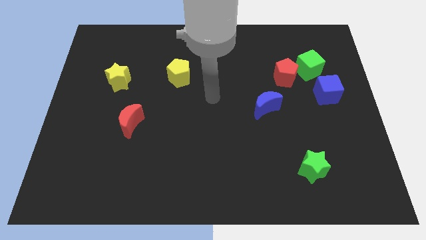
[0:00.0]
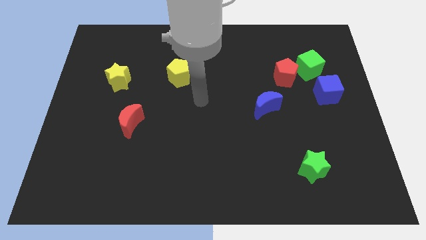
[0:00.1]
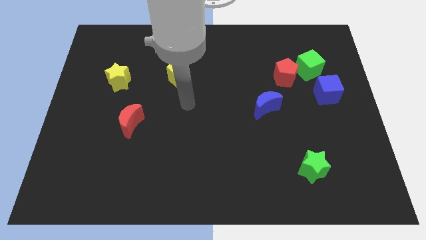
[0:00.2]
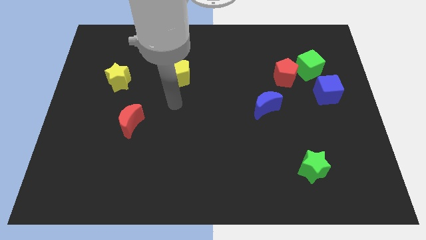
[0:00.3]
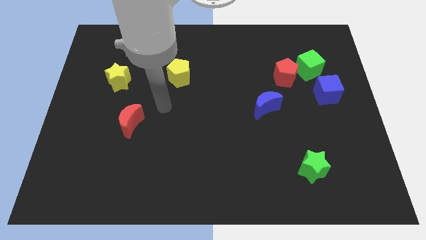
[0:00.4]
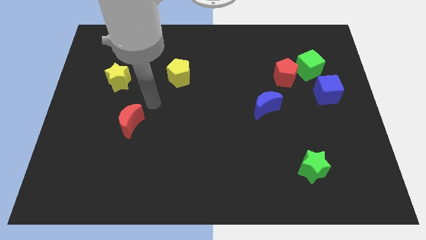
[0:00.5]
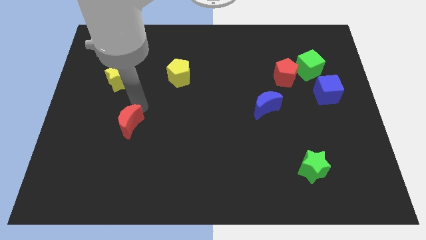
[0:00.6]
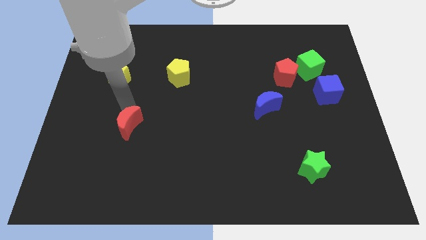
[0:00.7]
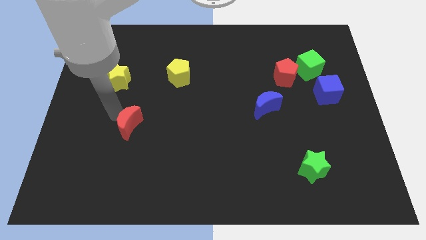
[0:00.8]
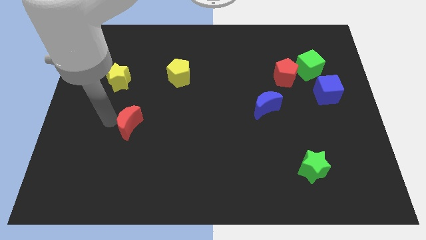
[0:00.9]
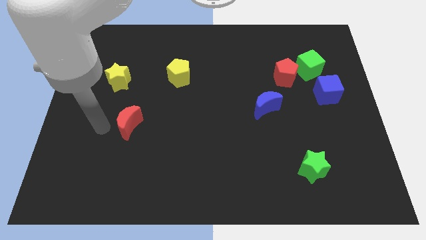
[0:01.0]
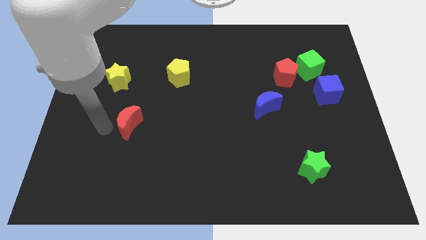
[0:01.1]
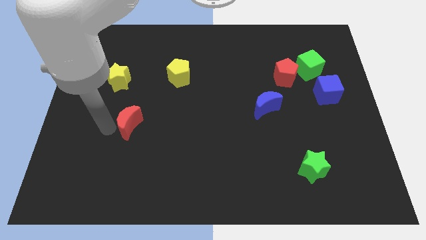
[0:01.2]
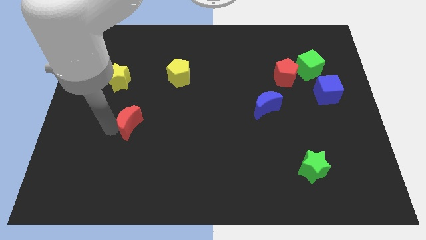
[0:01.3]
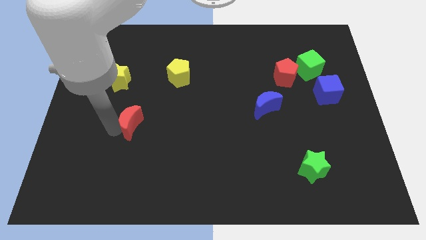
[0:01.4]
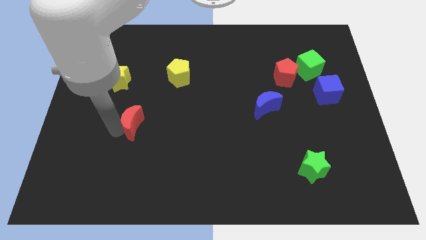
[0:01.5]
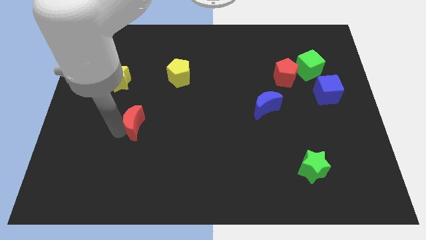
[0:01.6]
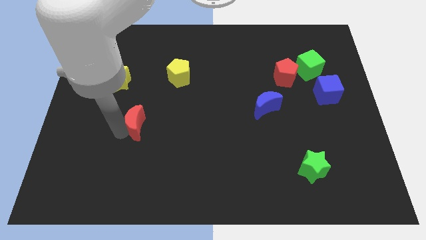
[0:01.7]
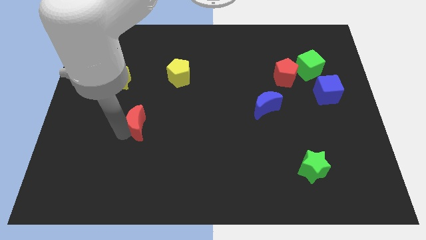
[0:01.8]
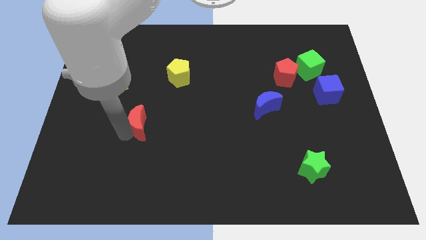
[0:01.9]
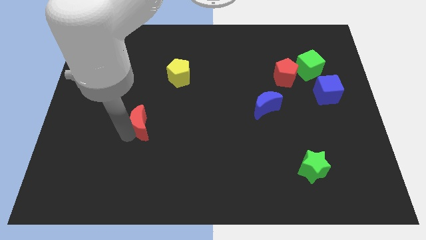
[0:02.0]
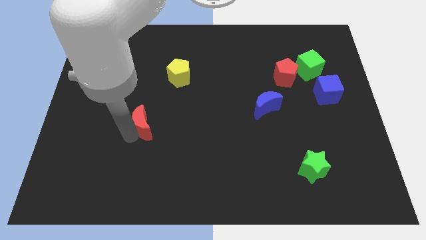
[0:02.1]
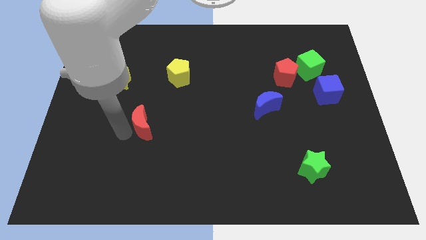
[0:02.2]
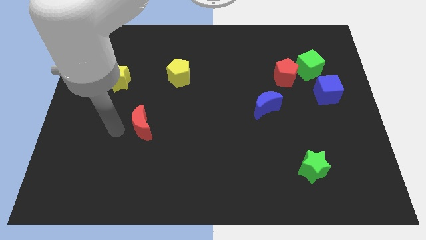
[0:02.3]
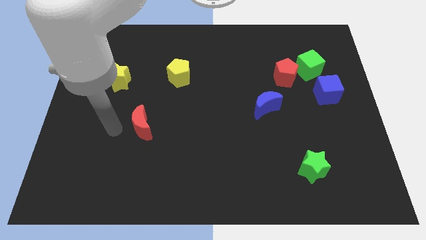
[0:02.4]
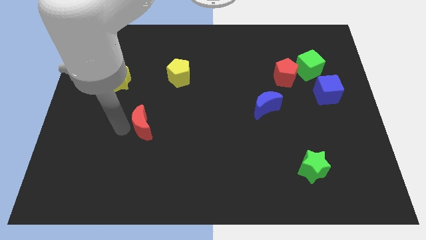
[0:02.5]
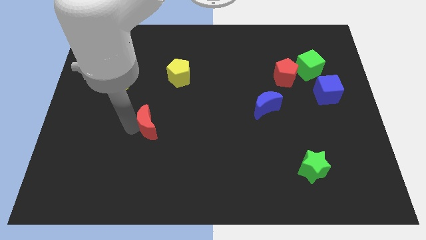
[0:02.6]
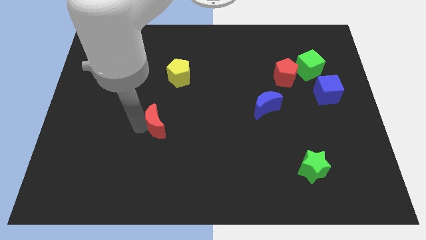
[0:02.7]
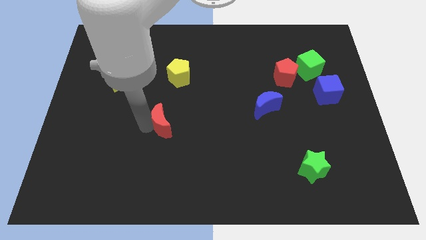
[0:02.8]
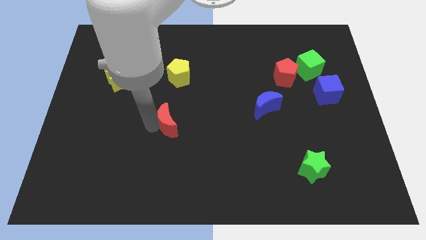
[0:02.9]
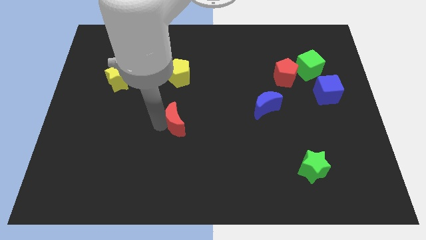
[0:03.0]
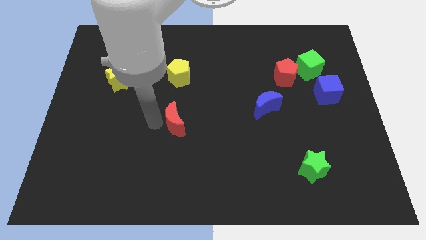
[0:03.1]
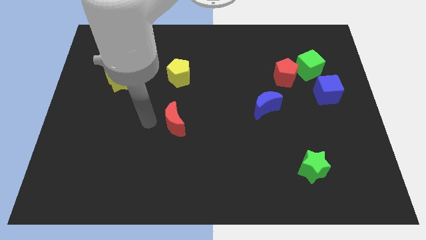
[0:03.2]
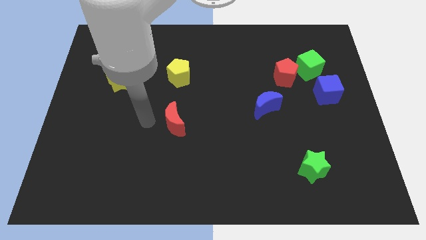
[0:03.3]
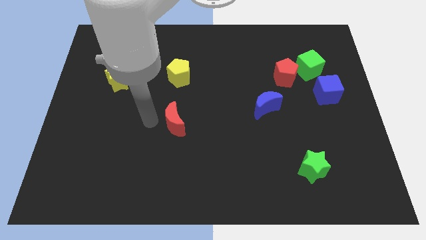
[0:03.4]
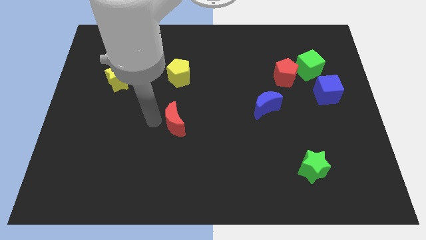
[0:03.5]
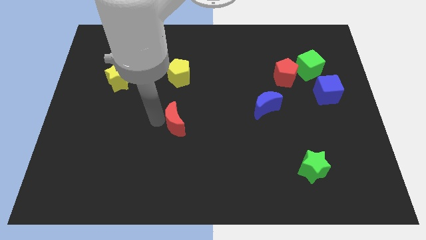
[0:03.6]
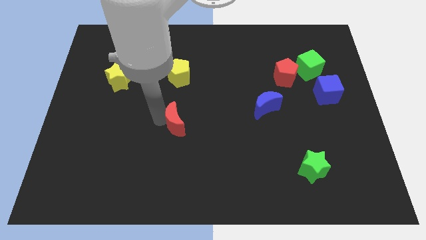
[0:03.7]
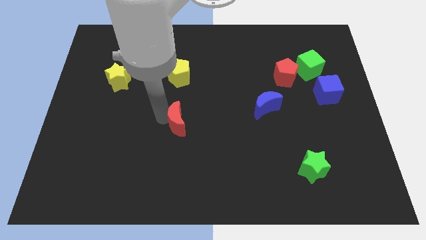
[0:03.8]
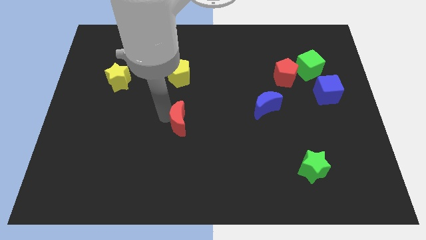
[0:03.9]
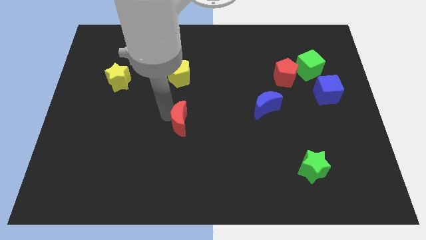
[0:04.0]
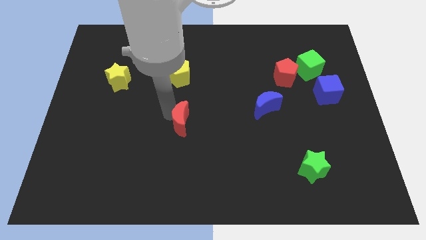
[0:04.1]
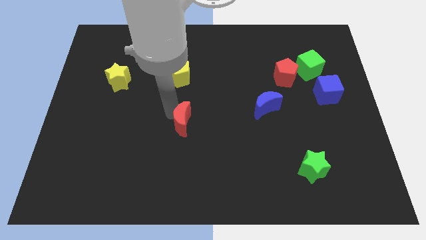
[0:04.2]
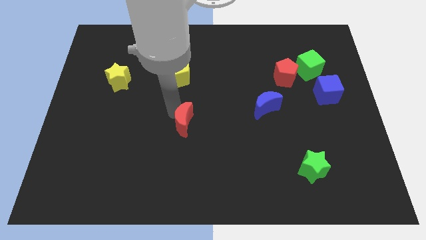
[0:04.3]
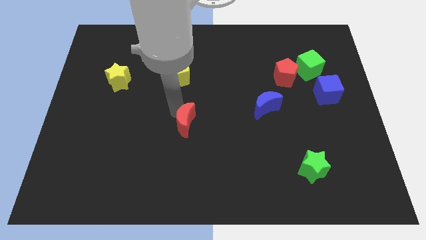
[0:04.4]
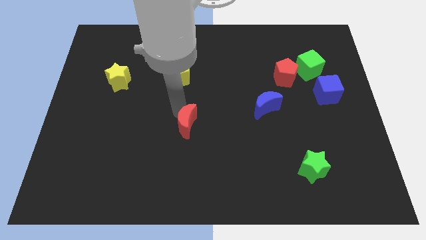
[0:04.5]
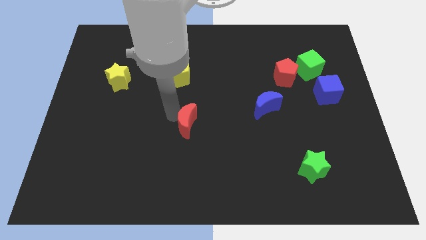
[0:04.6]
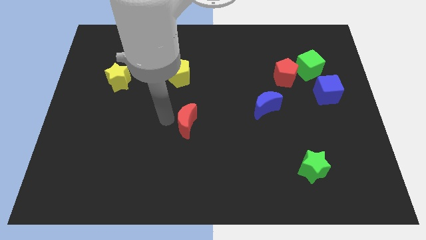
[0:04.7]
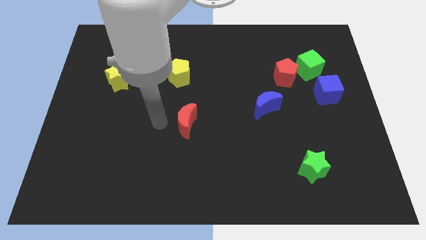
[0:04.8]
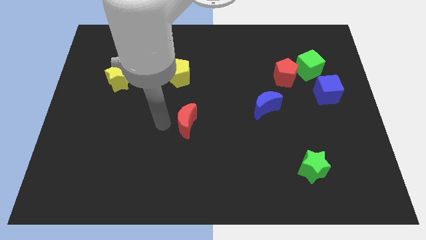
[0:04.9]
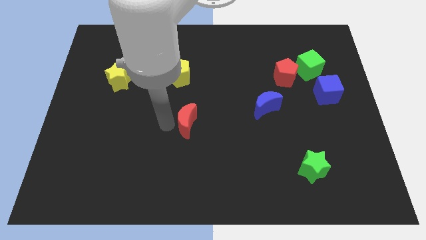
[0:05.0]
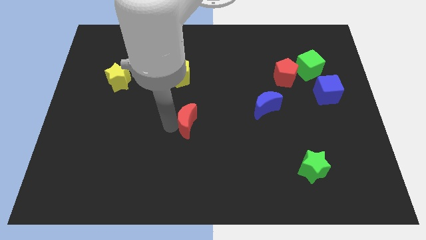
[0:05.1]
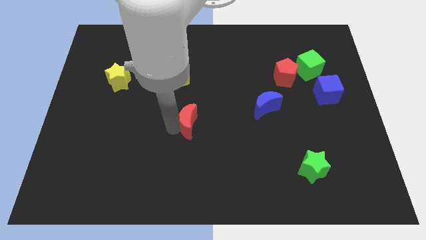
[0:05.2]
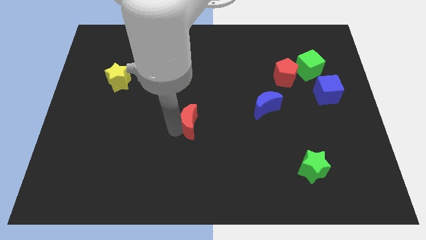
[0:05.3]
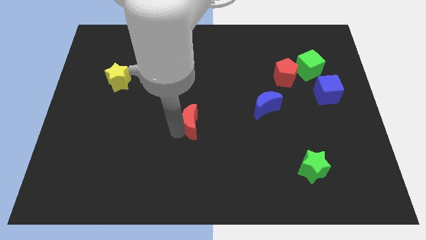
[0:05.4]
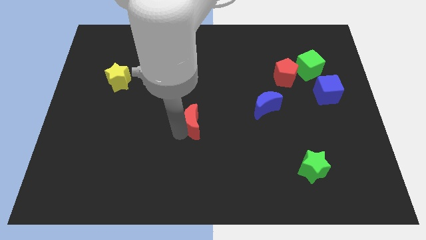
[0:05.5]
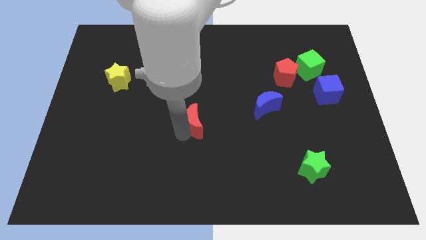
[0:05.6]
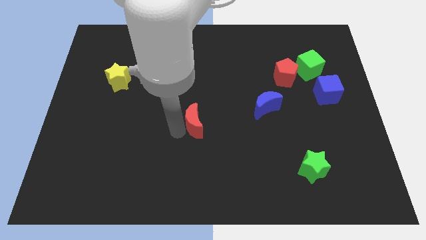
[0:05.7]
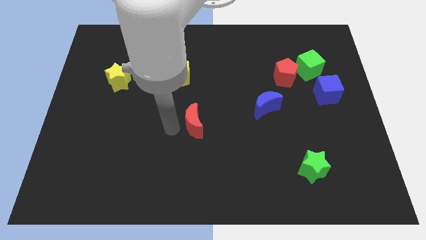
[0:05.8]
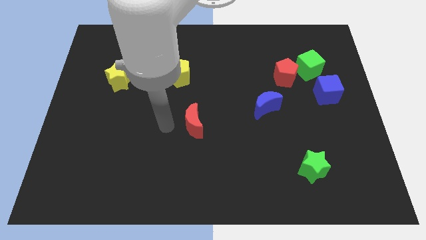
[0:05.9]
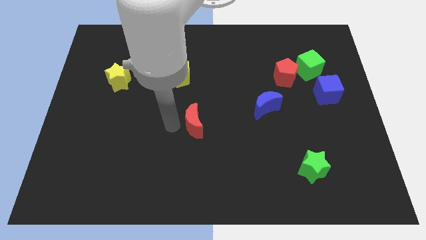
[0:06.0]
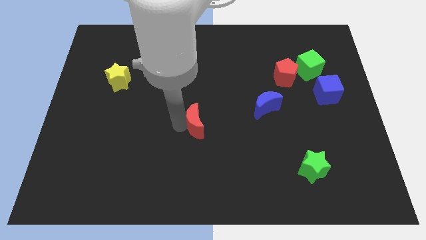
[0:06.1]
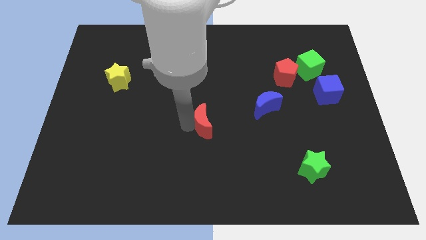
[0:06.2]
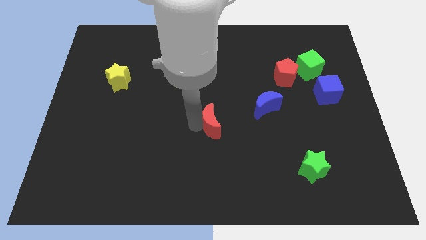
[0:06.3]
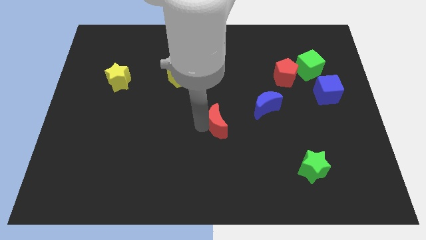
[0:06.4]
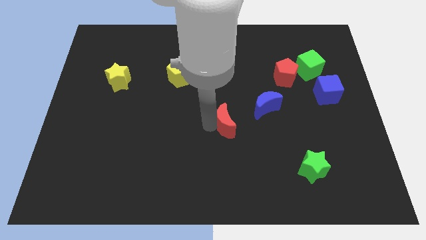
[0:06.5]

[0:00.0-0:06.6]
move the red moon to the right

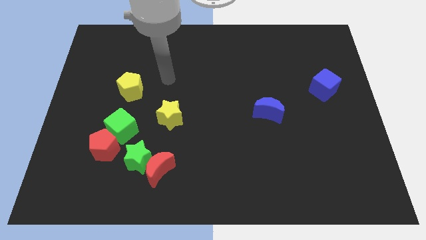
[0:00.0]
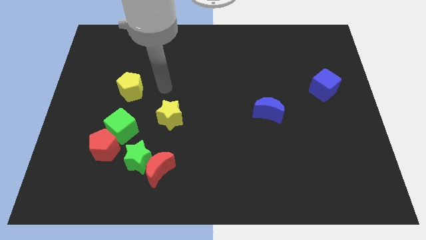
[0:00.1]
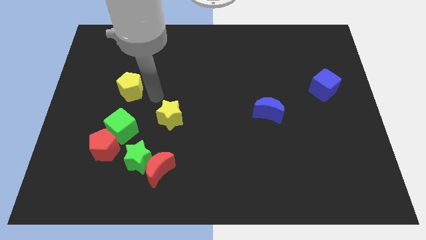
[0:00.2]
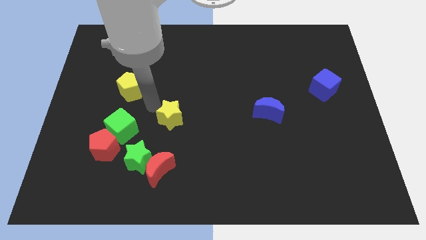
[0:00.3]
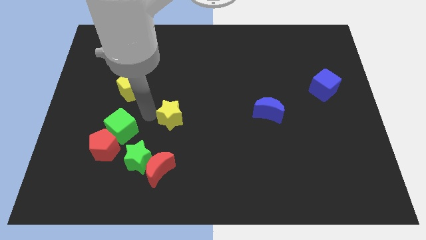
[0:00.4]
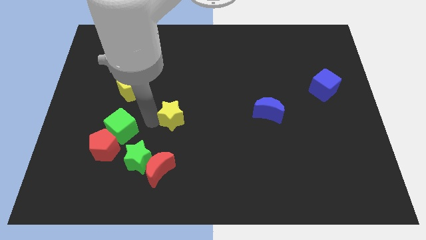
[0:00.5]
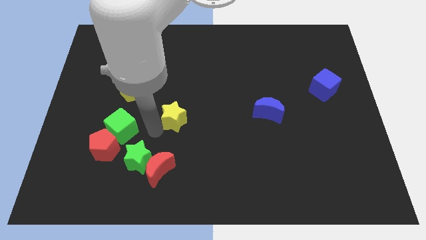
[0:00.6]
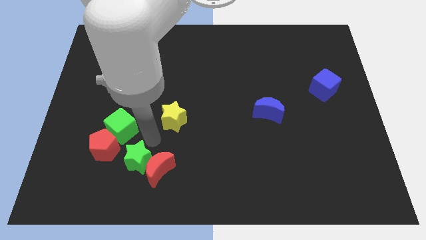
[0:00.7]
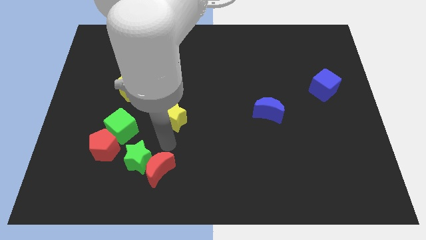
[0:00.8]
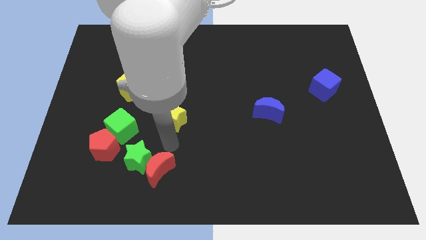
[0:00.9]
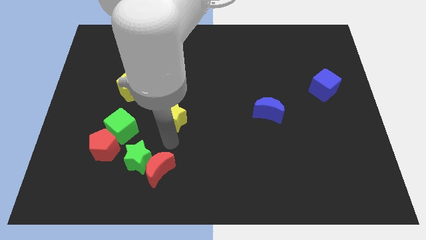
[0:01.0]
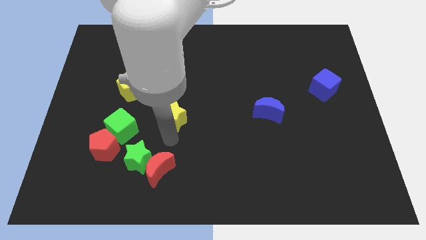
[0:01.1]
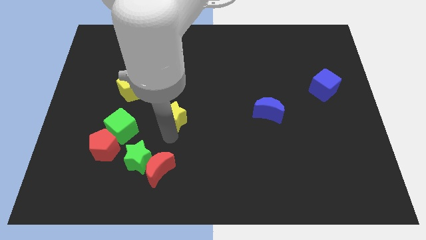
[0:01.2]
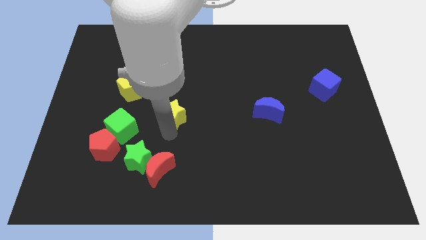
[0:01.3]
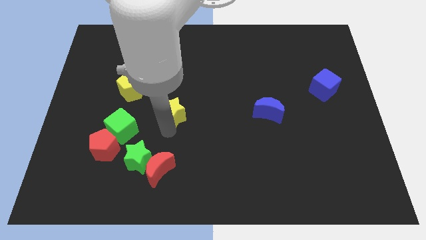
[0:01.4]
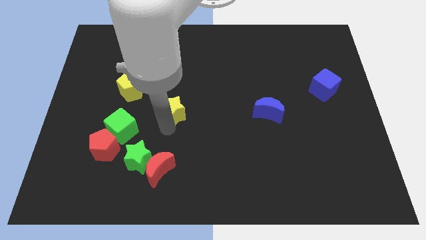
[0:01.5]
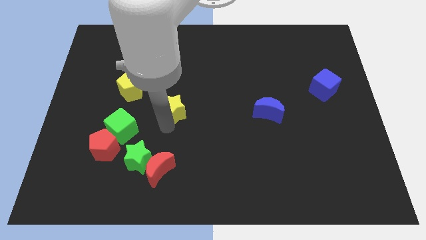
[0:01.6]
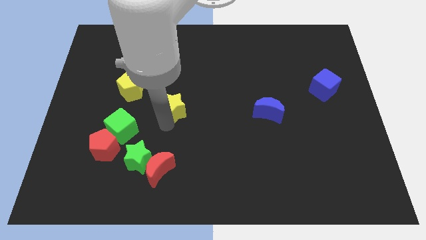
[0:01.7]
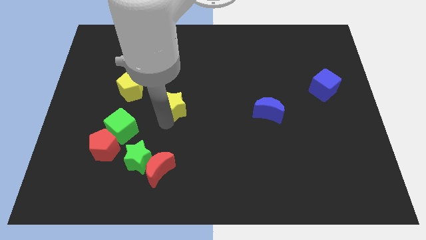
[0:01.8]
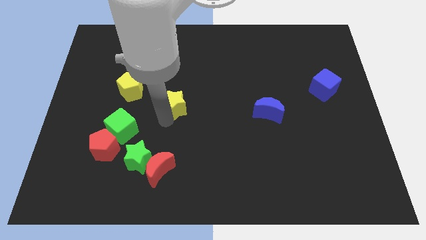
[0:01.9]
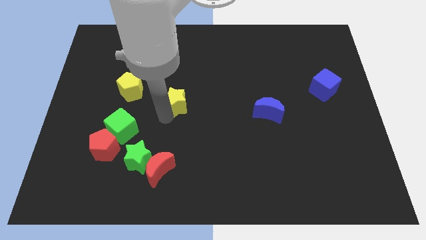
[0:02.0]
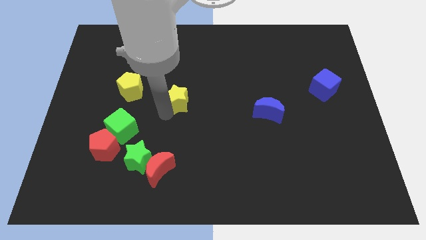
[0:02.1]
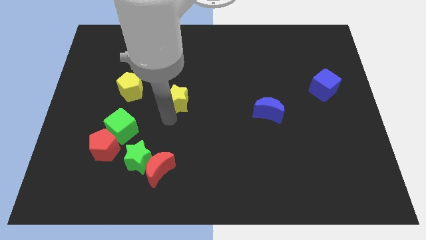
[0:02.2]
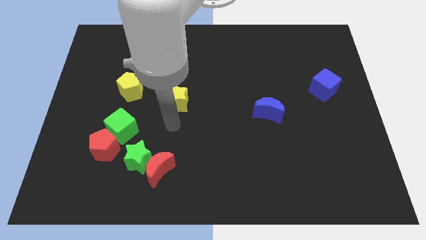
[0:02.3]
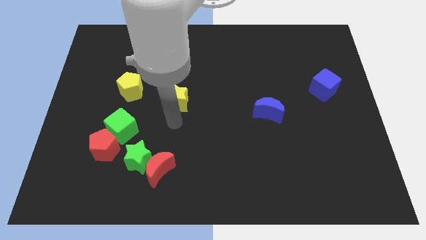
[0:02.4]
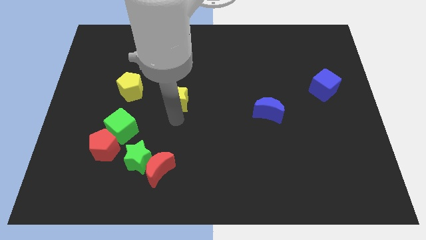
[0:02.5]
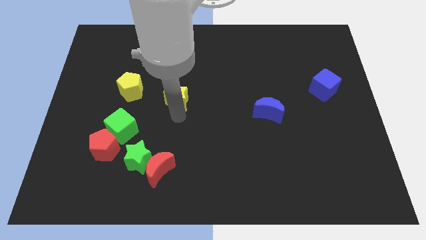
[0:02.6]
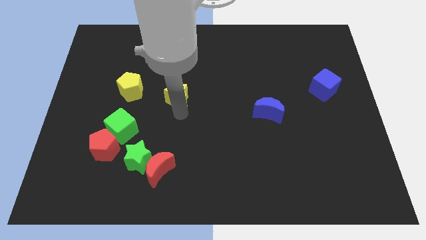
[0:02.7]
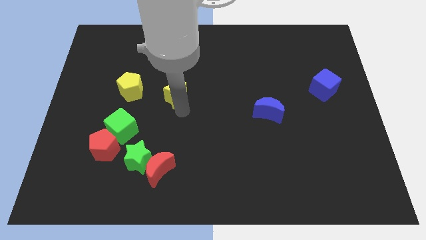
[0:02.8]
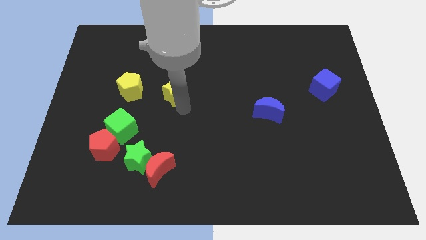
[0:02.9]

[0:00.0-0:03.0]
push the yellow star a little bit upwards
